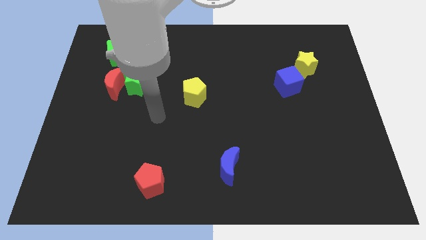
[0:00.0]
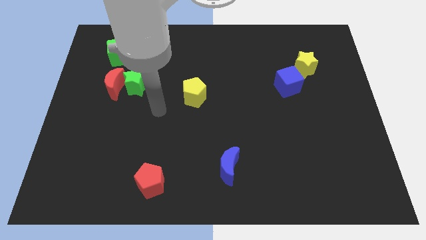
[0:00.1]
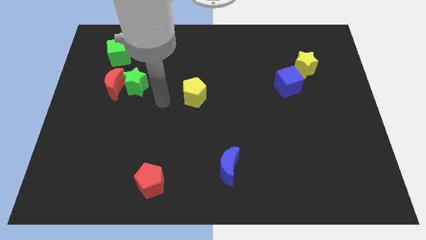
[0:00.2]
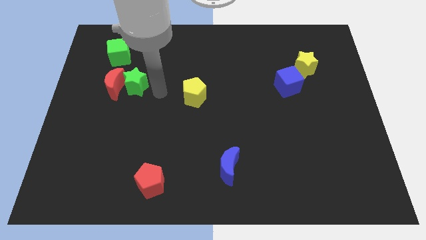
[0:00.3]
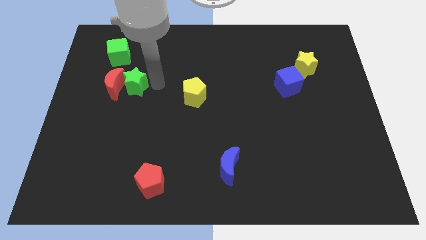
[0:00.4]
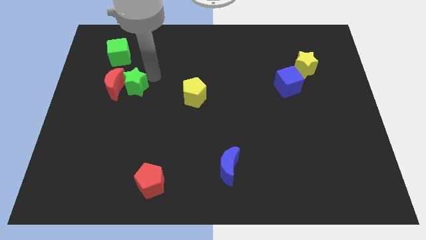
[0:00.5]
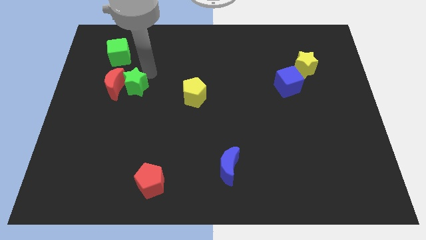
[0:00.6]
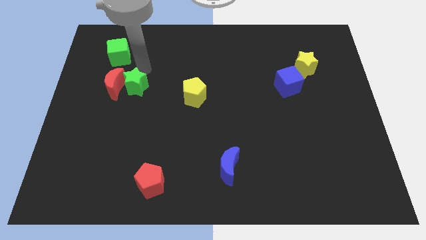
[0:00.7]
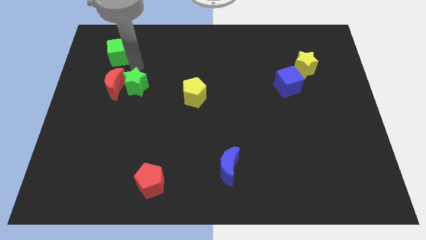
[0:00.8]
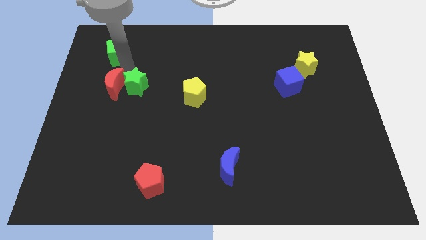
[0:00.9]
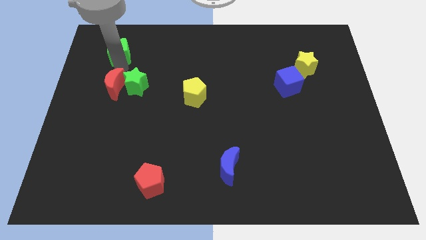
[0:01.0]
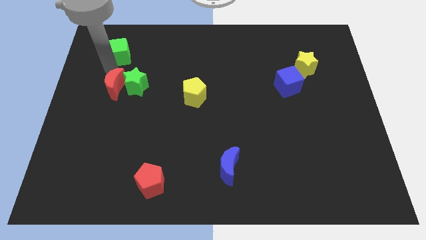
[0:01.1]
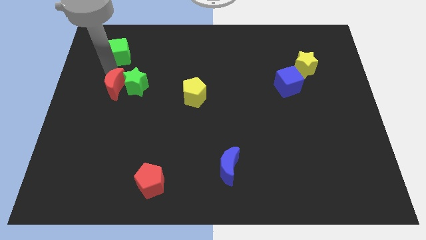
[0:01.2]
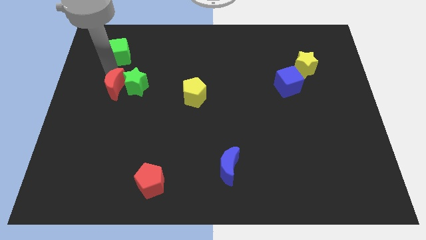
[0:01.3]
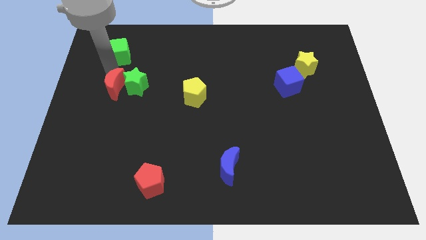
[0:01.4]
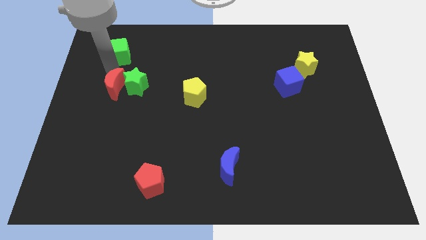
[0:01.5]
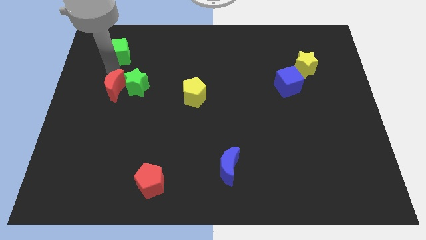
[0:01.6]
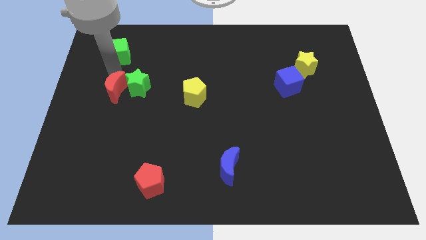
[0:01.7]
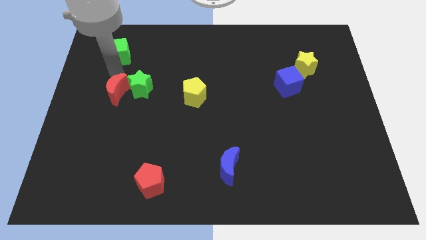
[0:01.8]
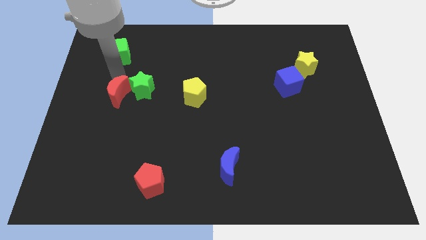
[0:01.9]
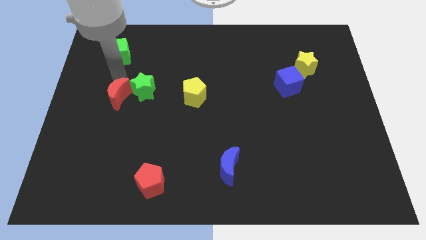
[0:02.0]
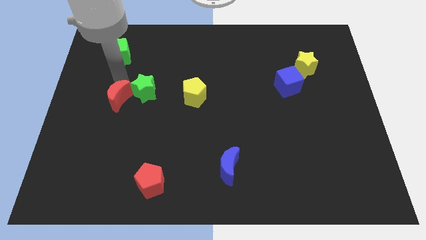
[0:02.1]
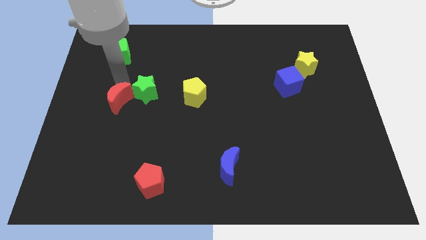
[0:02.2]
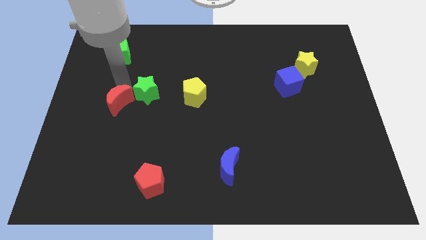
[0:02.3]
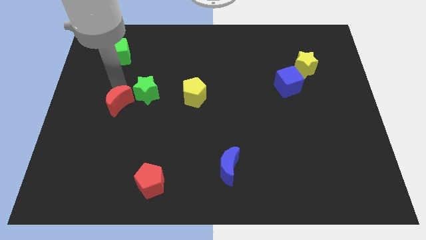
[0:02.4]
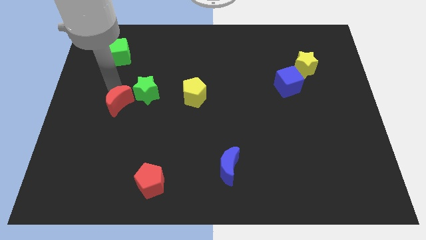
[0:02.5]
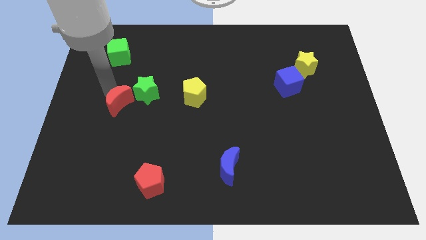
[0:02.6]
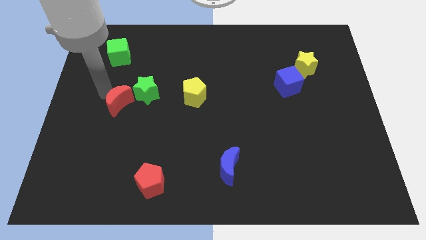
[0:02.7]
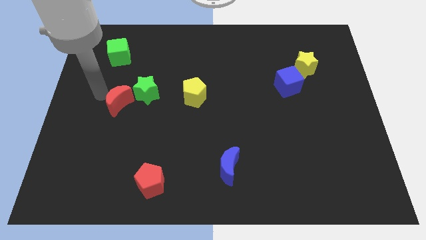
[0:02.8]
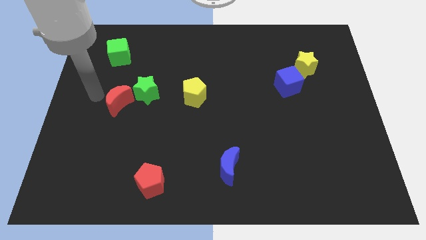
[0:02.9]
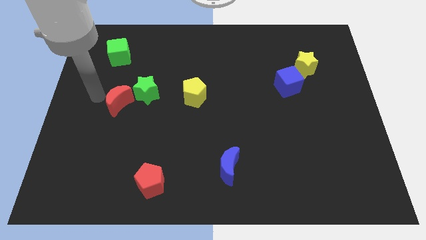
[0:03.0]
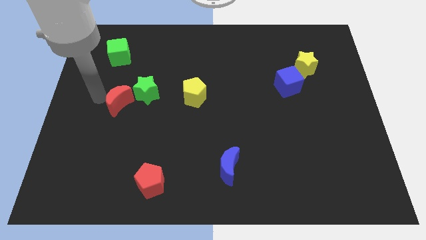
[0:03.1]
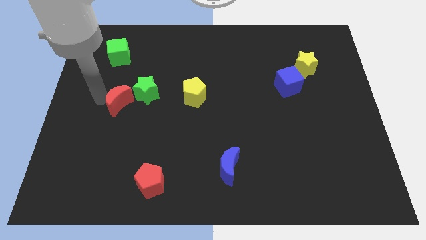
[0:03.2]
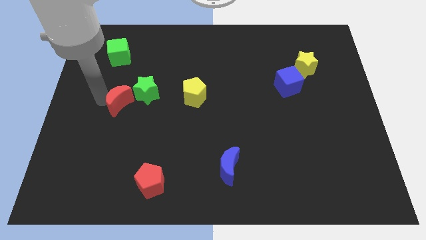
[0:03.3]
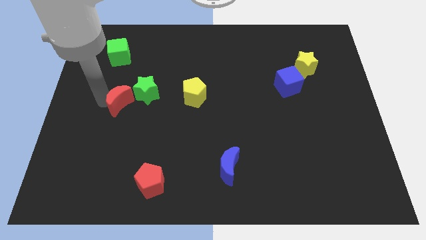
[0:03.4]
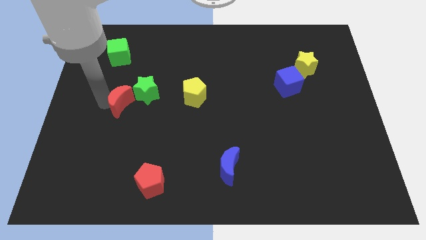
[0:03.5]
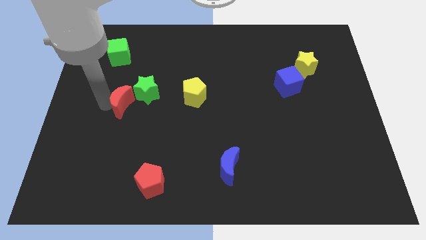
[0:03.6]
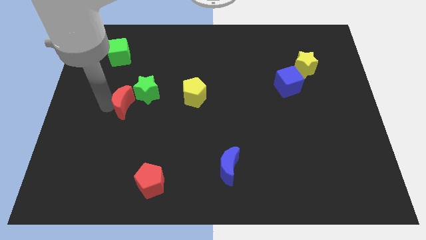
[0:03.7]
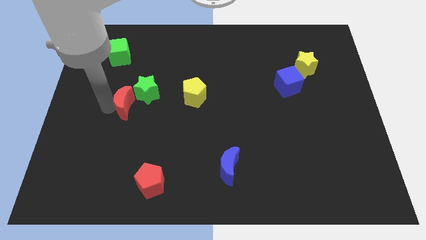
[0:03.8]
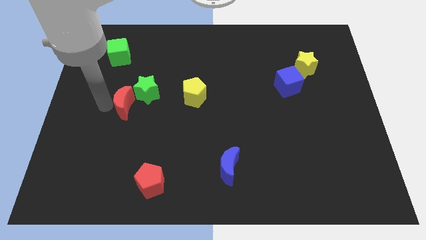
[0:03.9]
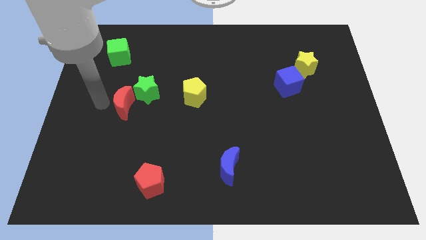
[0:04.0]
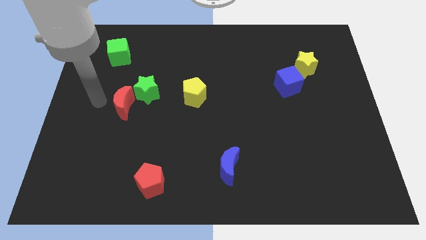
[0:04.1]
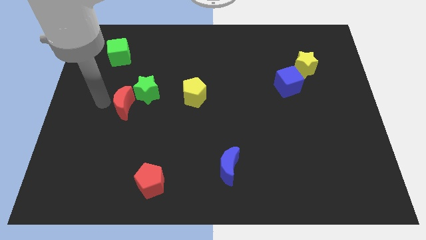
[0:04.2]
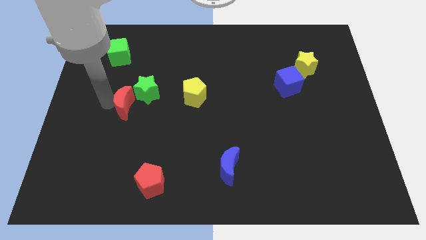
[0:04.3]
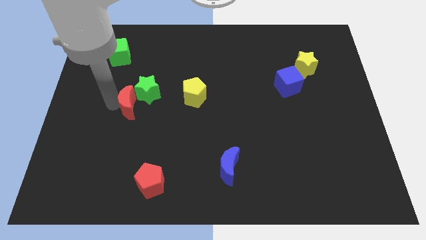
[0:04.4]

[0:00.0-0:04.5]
move the red moon slightly downwards and to the right diagonally

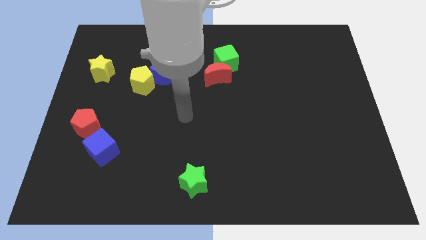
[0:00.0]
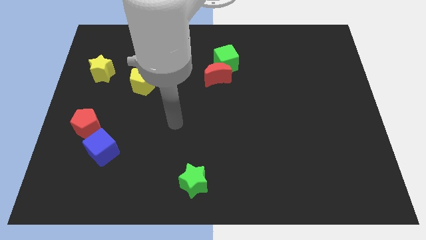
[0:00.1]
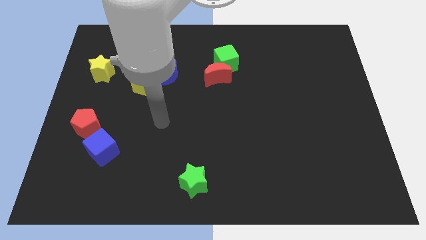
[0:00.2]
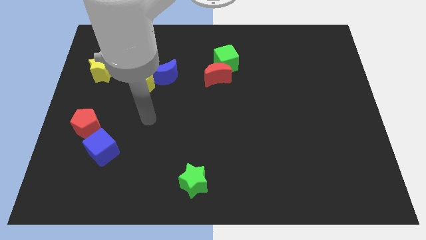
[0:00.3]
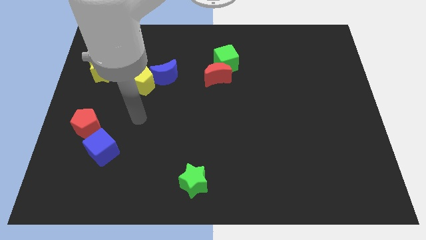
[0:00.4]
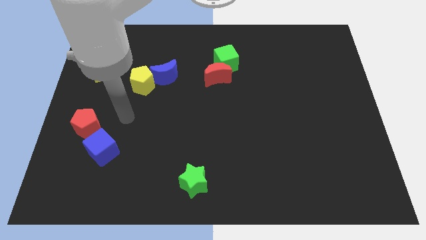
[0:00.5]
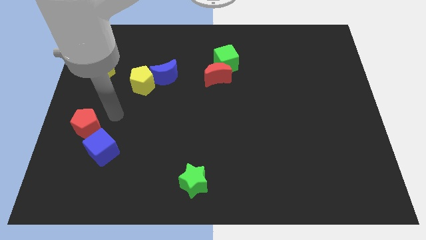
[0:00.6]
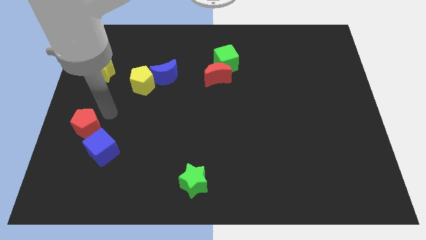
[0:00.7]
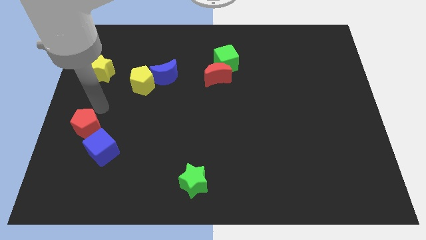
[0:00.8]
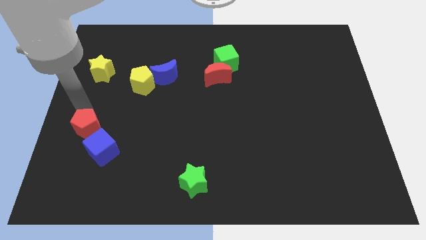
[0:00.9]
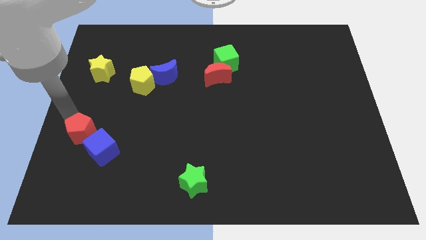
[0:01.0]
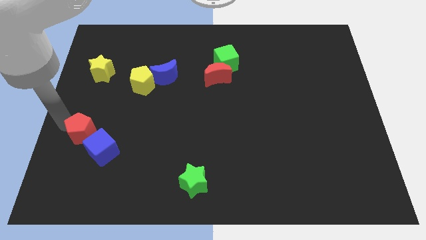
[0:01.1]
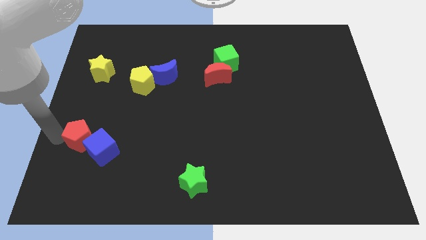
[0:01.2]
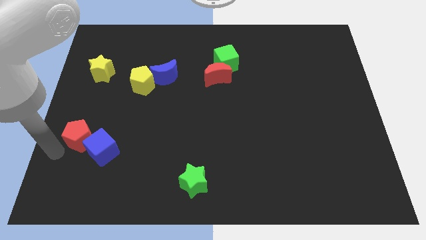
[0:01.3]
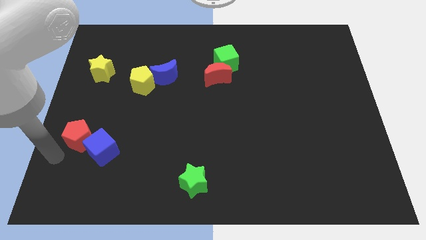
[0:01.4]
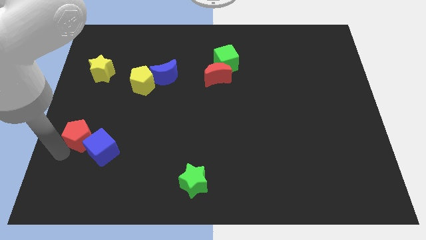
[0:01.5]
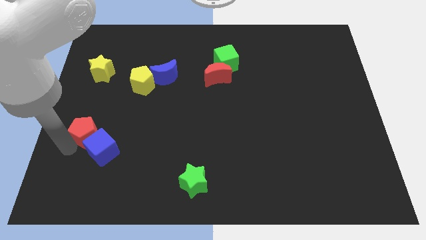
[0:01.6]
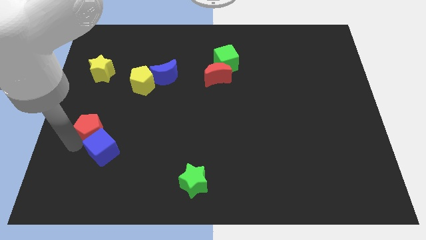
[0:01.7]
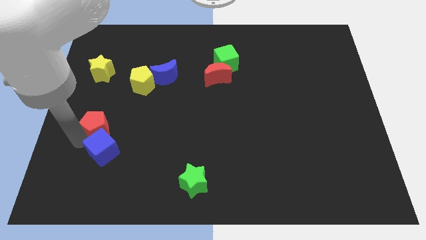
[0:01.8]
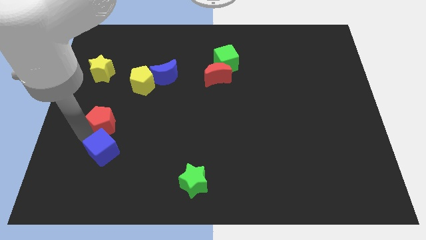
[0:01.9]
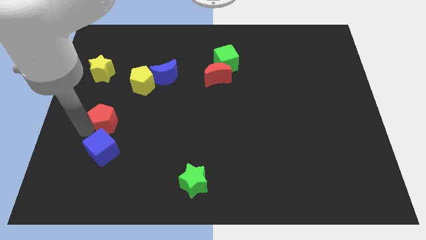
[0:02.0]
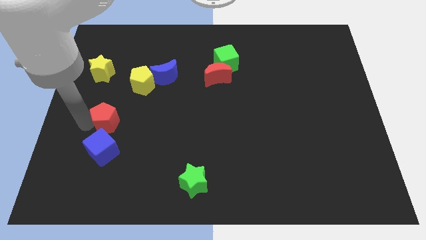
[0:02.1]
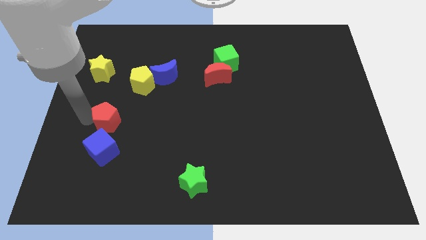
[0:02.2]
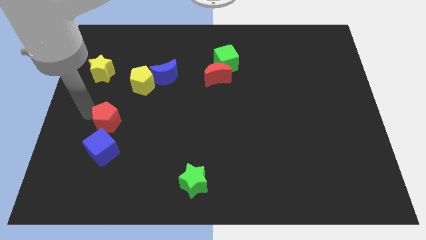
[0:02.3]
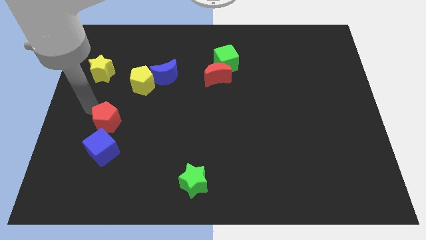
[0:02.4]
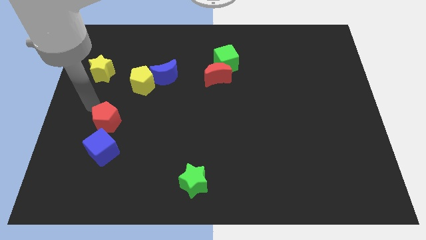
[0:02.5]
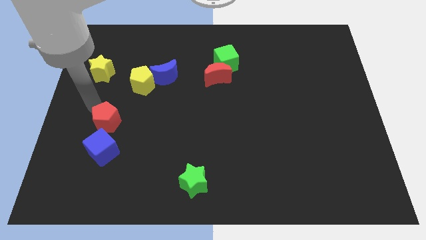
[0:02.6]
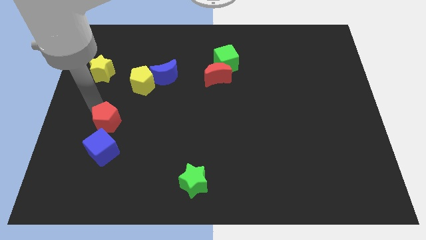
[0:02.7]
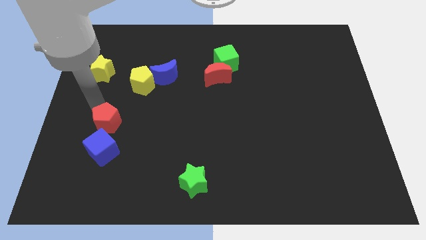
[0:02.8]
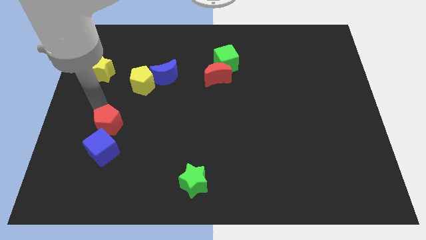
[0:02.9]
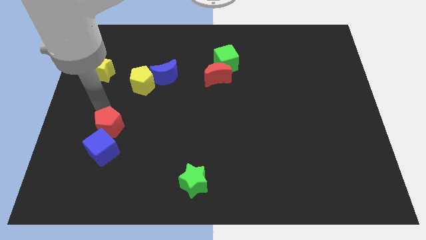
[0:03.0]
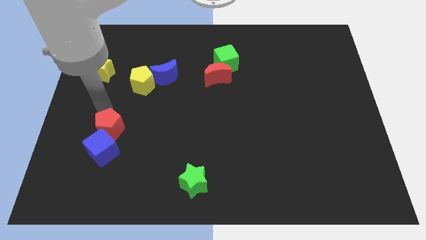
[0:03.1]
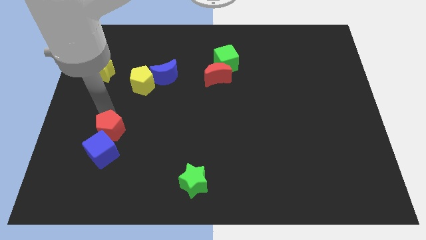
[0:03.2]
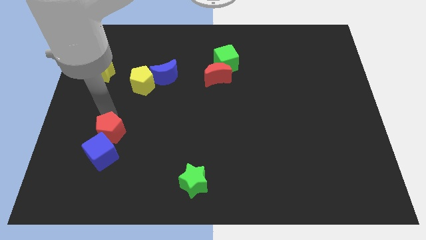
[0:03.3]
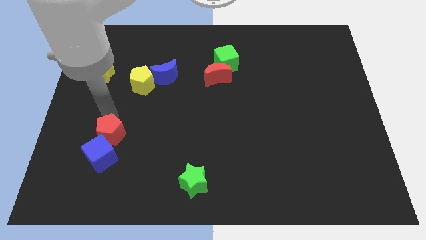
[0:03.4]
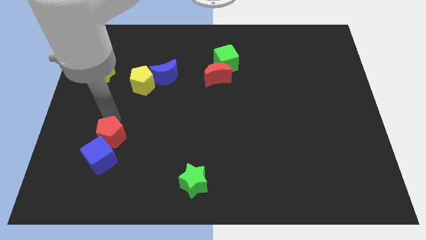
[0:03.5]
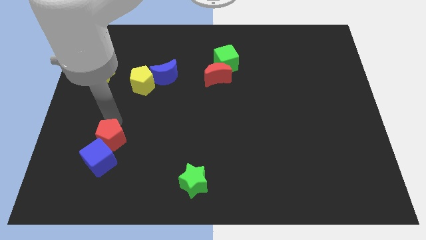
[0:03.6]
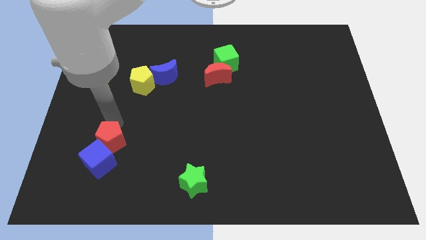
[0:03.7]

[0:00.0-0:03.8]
push the red pentagon downwards and to the right diagonally a little
